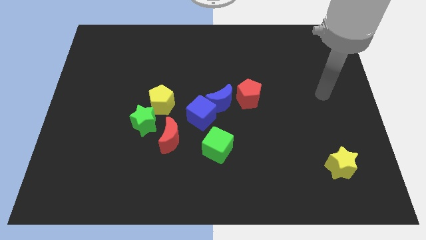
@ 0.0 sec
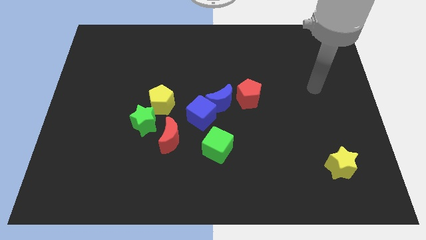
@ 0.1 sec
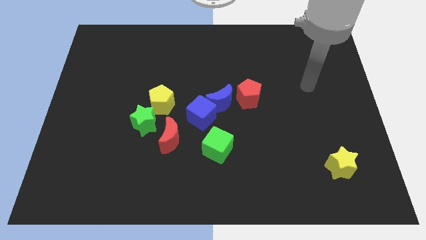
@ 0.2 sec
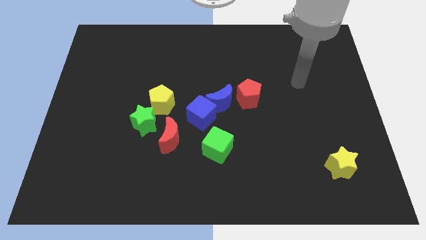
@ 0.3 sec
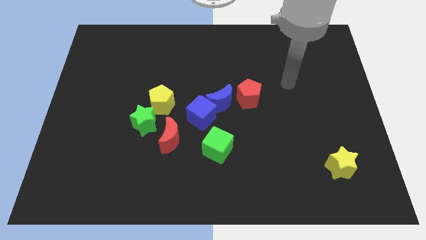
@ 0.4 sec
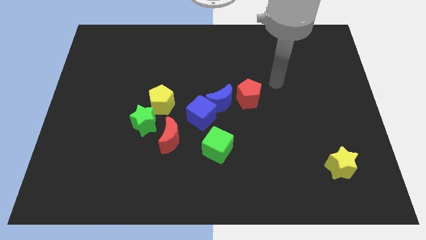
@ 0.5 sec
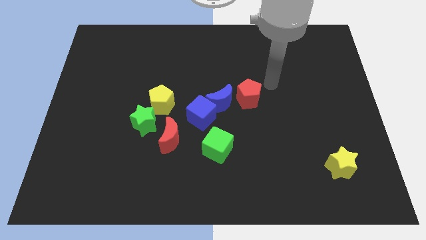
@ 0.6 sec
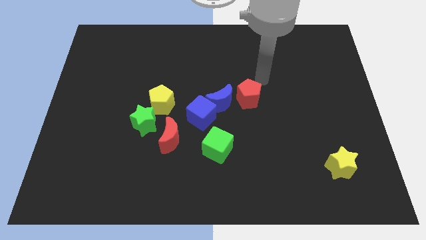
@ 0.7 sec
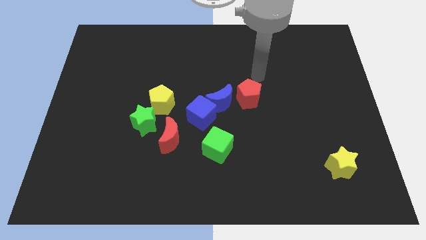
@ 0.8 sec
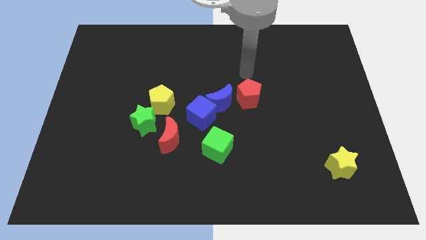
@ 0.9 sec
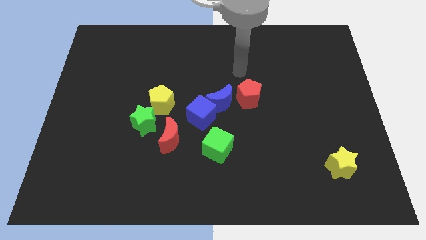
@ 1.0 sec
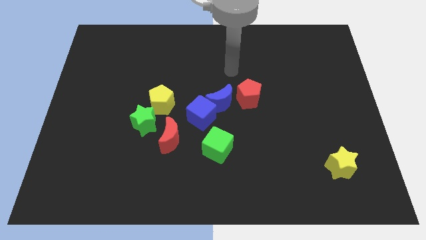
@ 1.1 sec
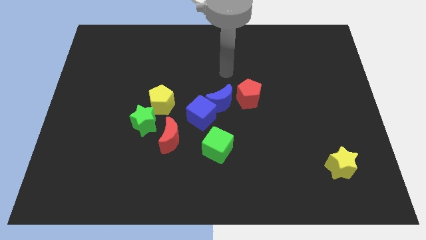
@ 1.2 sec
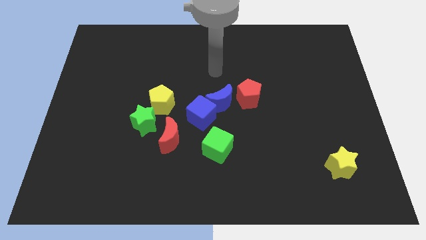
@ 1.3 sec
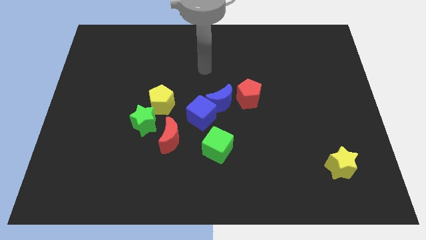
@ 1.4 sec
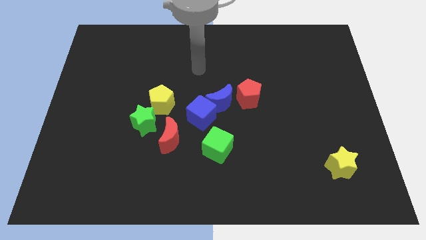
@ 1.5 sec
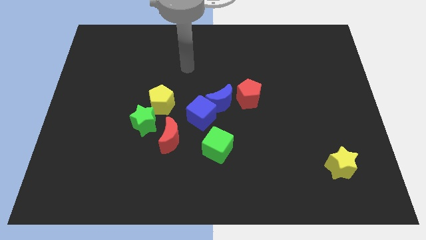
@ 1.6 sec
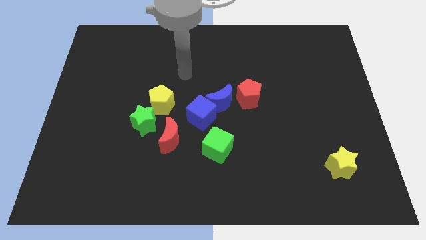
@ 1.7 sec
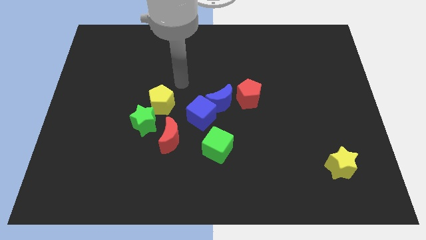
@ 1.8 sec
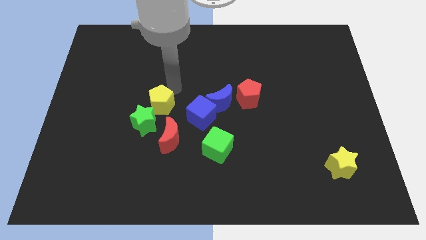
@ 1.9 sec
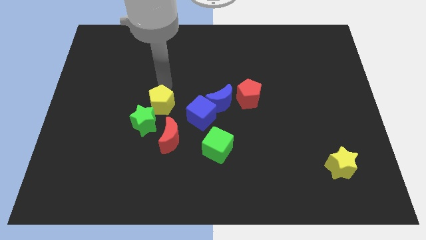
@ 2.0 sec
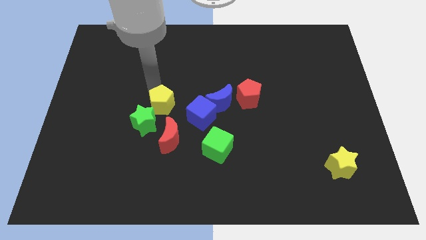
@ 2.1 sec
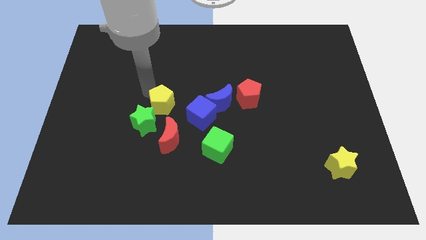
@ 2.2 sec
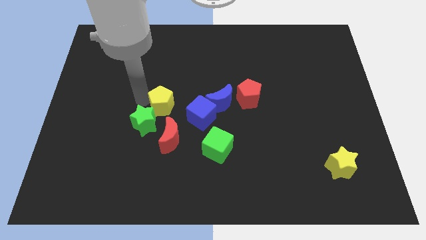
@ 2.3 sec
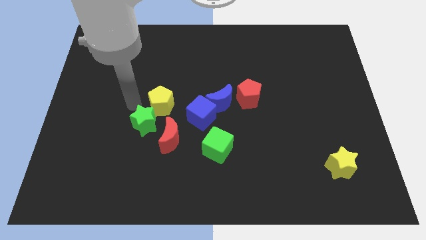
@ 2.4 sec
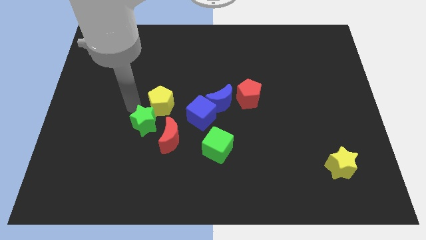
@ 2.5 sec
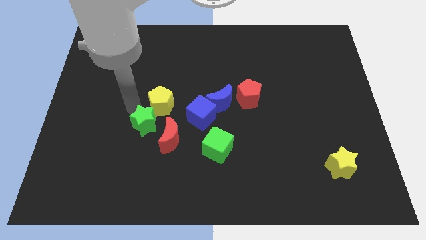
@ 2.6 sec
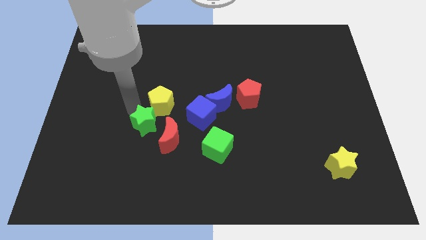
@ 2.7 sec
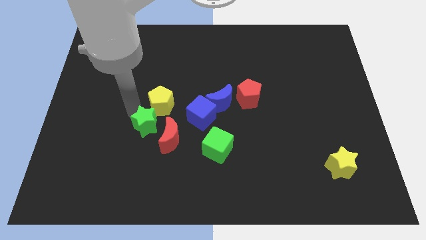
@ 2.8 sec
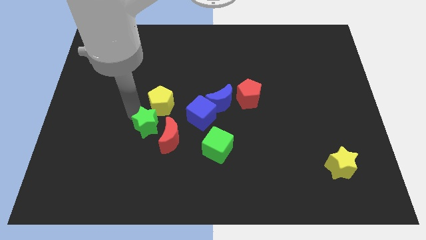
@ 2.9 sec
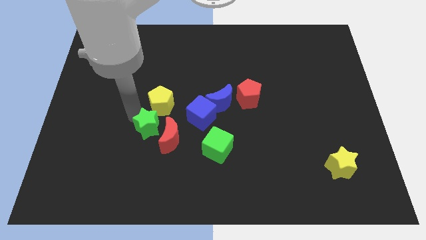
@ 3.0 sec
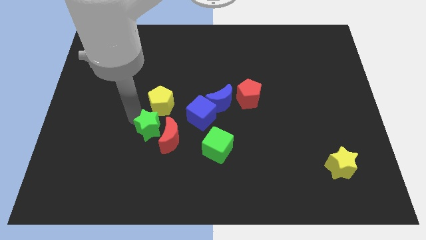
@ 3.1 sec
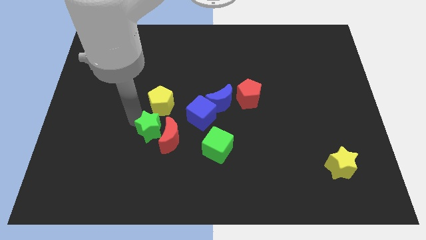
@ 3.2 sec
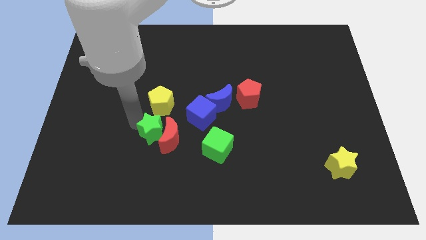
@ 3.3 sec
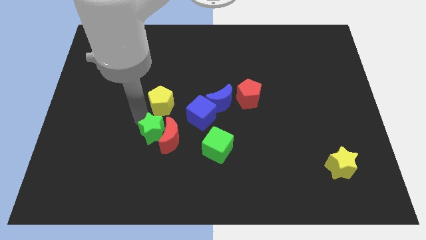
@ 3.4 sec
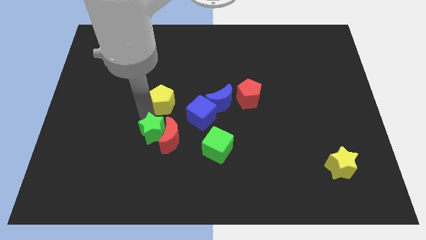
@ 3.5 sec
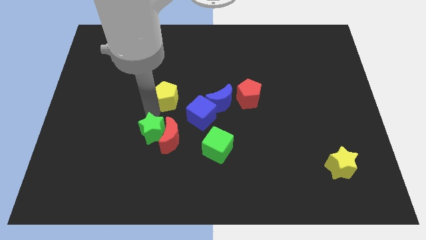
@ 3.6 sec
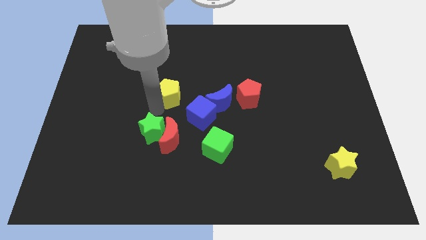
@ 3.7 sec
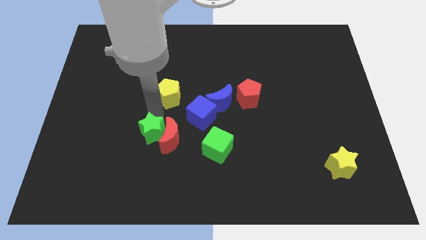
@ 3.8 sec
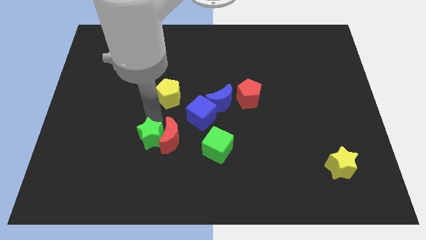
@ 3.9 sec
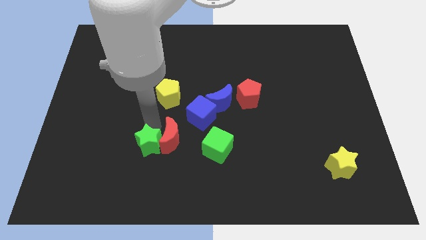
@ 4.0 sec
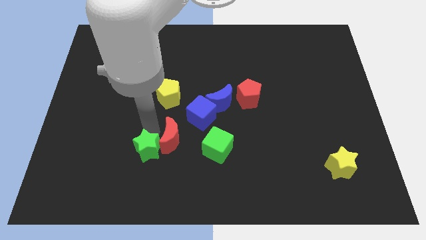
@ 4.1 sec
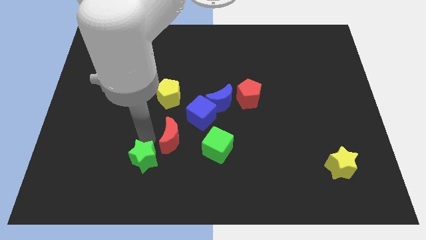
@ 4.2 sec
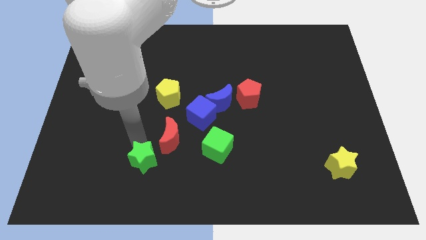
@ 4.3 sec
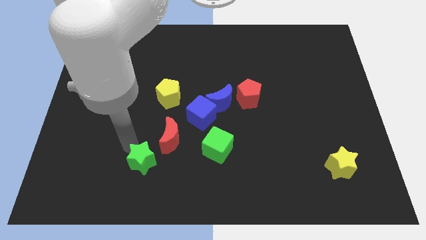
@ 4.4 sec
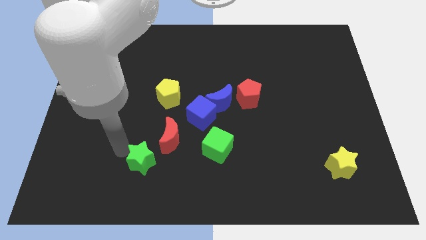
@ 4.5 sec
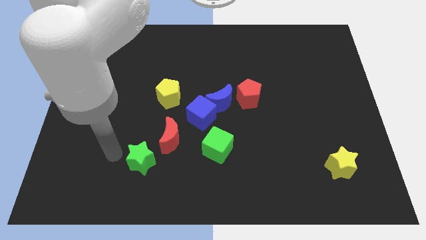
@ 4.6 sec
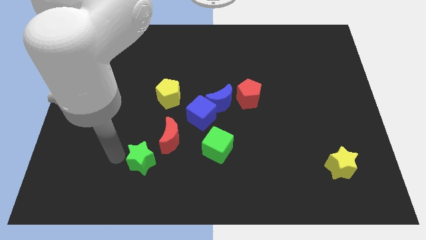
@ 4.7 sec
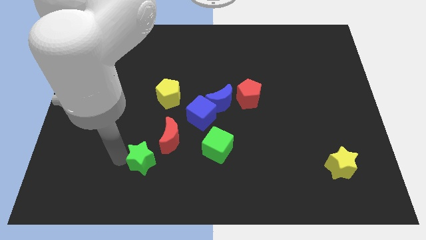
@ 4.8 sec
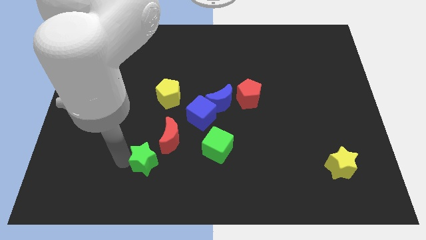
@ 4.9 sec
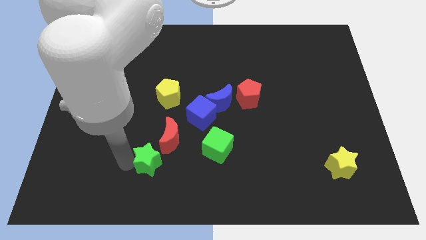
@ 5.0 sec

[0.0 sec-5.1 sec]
slightly slide the green star downwards and right

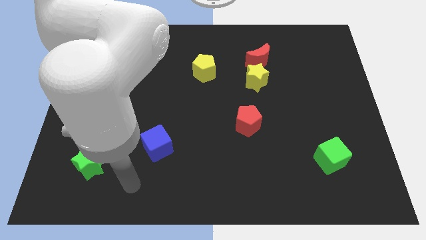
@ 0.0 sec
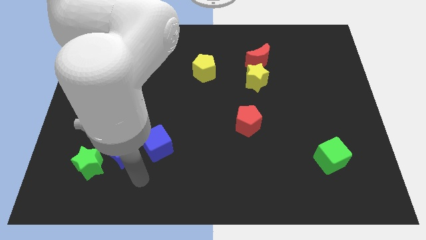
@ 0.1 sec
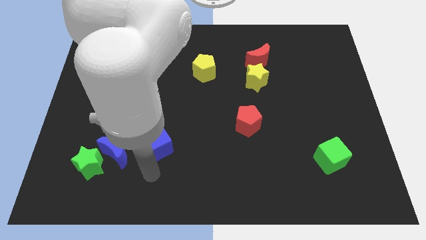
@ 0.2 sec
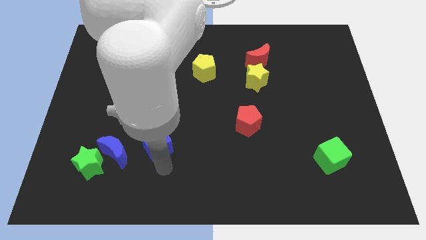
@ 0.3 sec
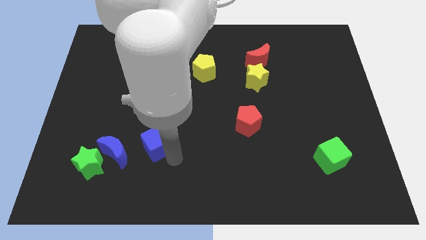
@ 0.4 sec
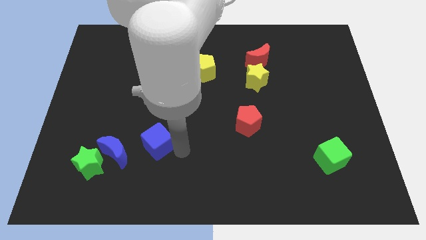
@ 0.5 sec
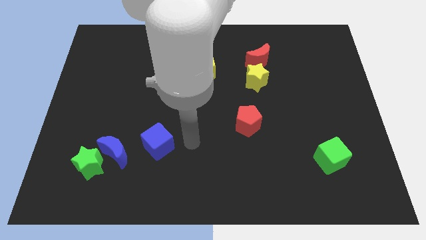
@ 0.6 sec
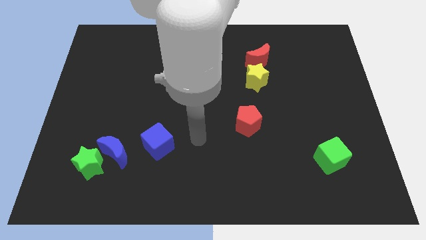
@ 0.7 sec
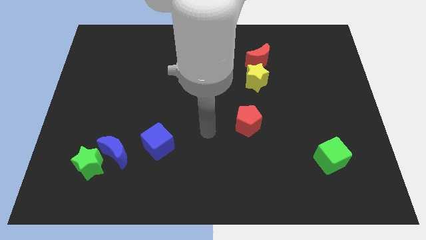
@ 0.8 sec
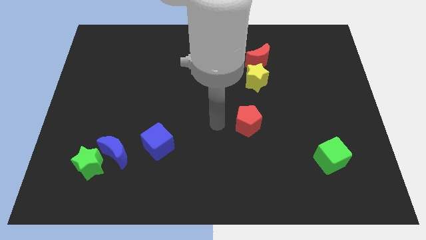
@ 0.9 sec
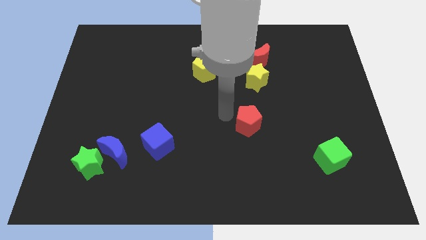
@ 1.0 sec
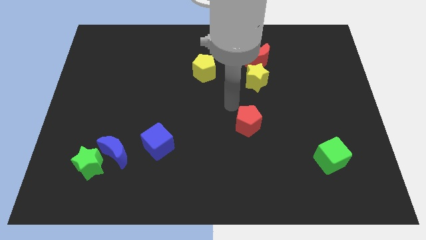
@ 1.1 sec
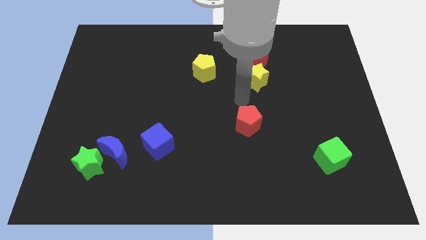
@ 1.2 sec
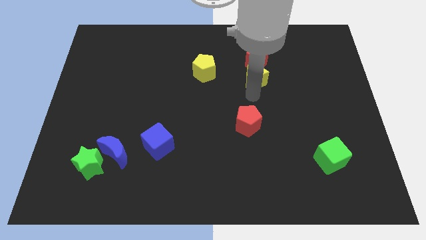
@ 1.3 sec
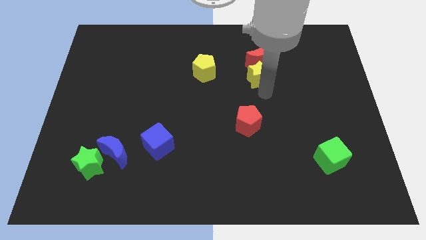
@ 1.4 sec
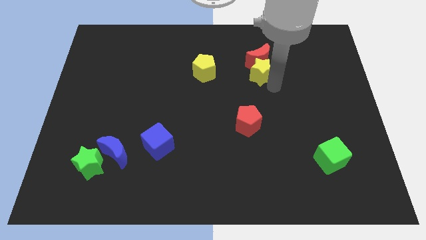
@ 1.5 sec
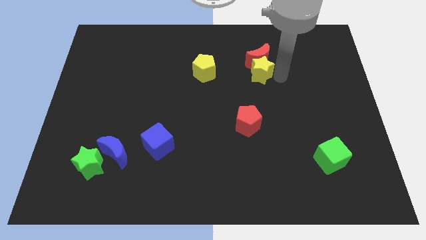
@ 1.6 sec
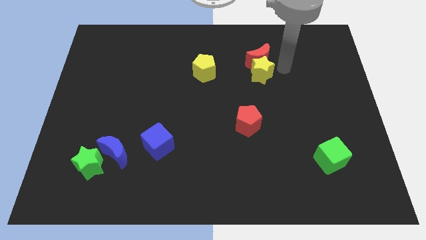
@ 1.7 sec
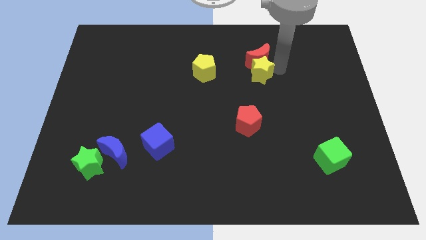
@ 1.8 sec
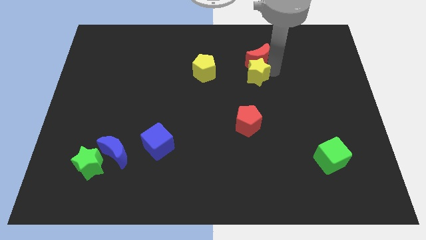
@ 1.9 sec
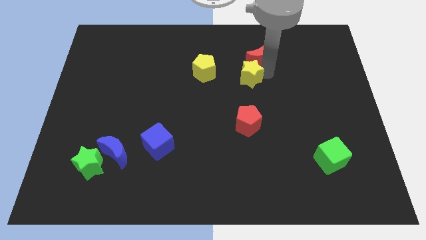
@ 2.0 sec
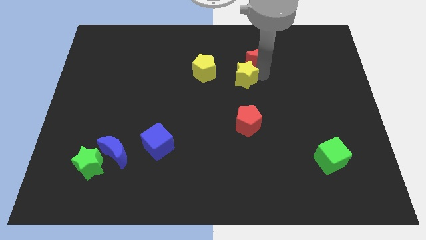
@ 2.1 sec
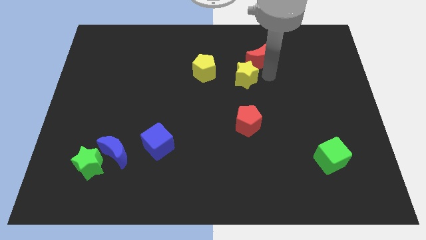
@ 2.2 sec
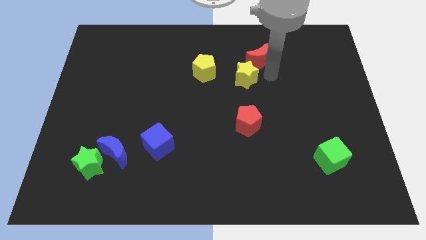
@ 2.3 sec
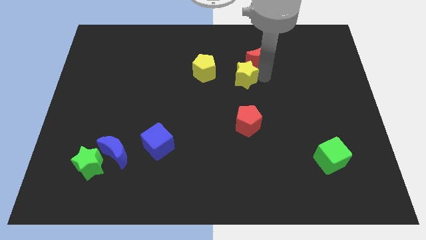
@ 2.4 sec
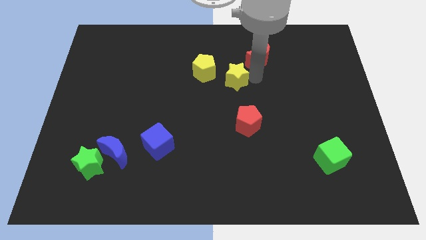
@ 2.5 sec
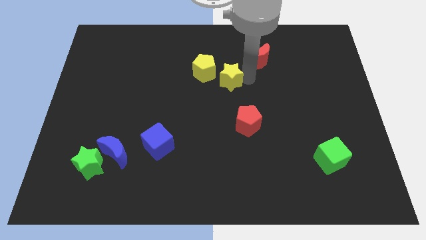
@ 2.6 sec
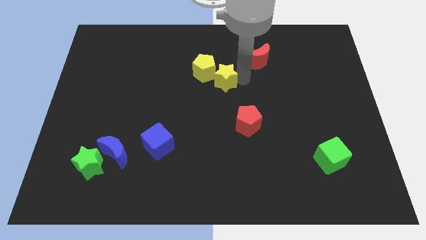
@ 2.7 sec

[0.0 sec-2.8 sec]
push the yellow star to the left somewhat

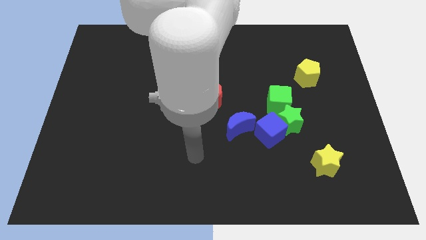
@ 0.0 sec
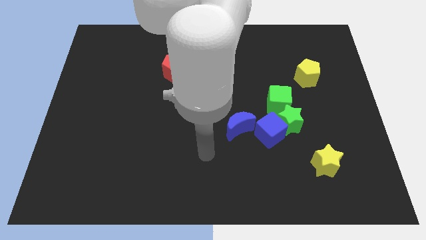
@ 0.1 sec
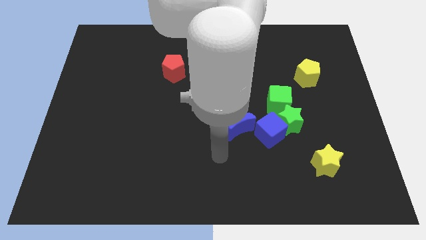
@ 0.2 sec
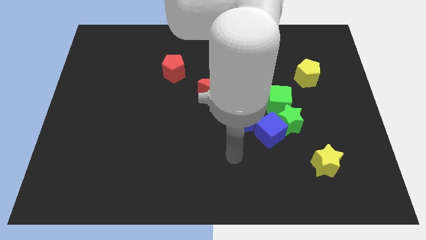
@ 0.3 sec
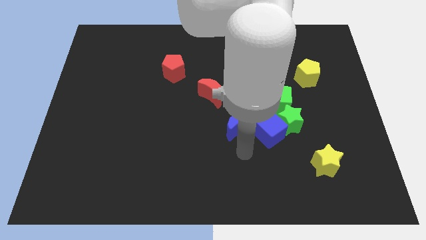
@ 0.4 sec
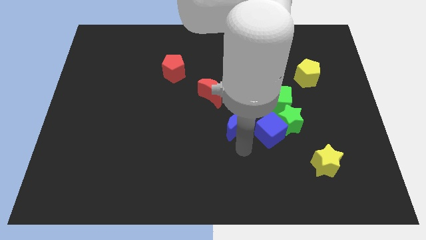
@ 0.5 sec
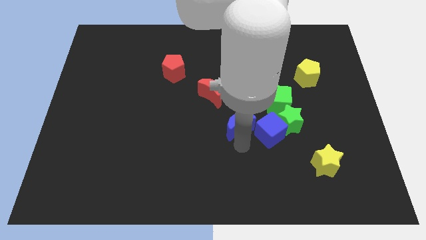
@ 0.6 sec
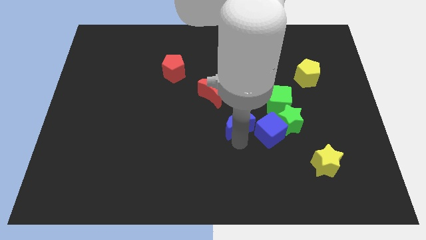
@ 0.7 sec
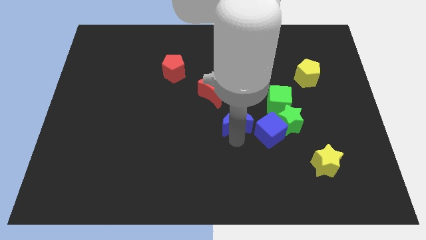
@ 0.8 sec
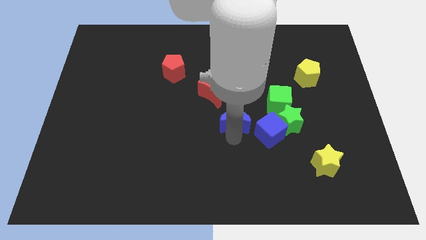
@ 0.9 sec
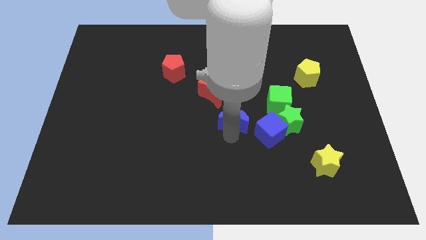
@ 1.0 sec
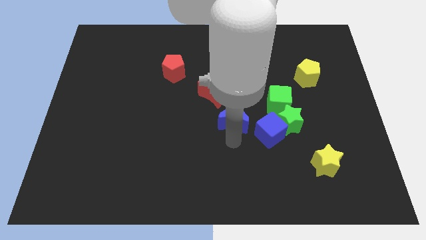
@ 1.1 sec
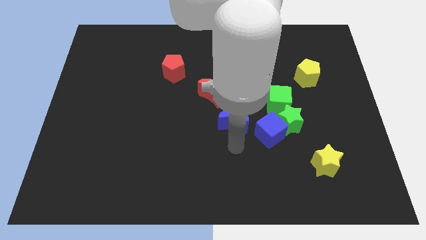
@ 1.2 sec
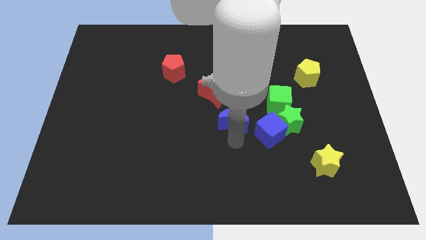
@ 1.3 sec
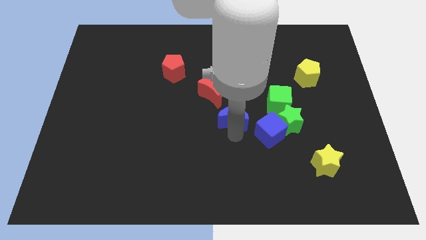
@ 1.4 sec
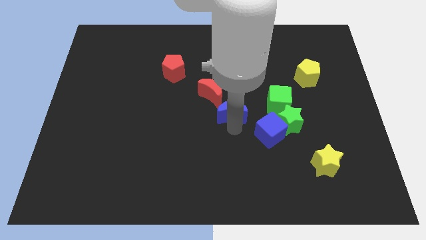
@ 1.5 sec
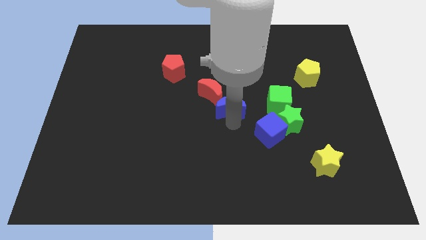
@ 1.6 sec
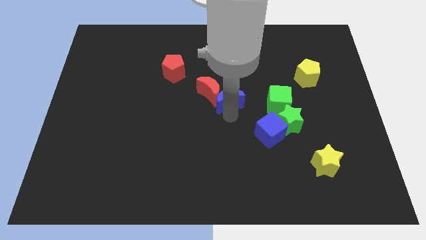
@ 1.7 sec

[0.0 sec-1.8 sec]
slide the blue moon a little up
